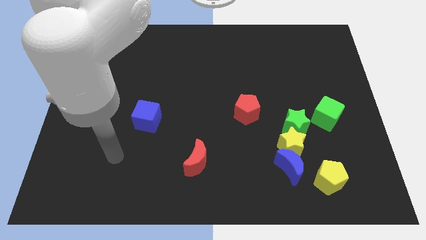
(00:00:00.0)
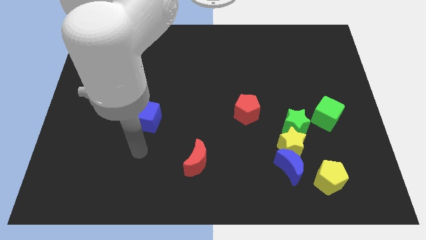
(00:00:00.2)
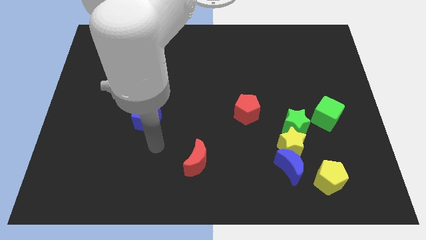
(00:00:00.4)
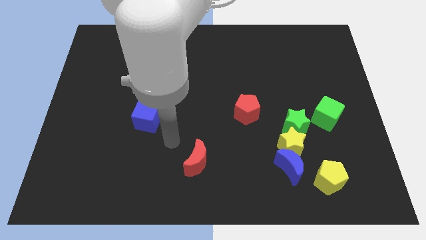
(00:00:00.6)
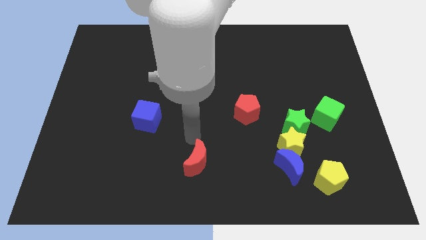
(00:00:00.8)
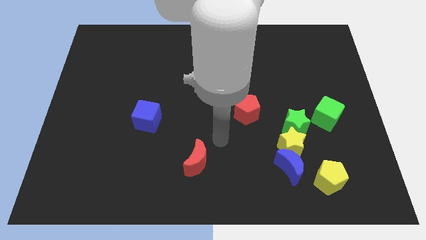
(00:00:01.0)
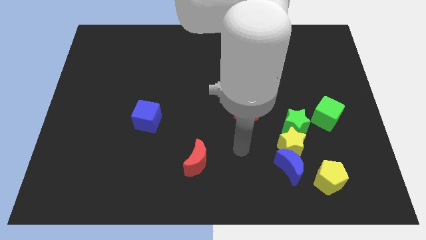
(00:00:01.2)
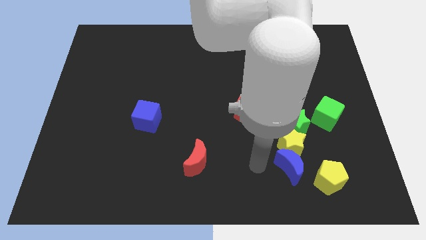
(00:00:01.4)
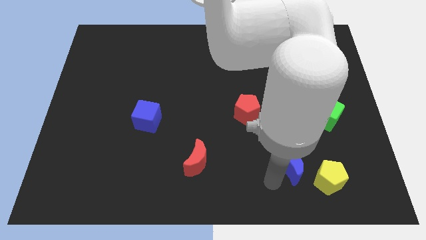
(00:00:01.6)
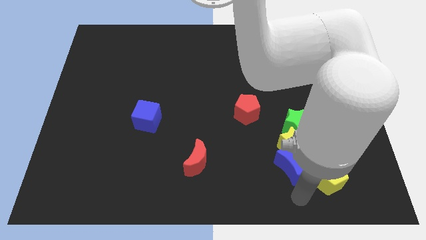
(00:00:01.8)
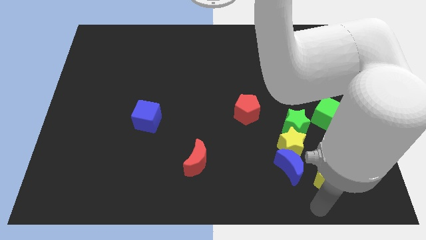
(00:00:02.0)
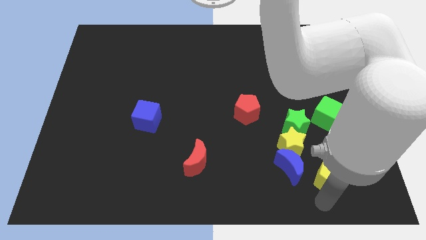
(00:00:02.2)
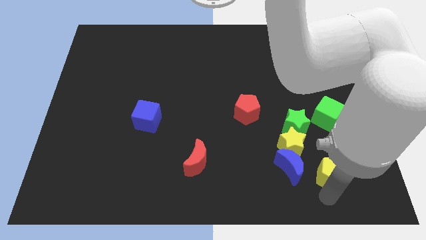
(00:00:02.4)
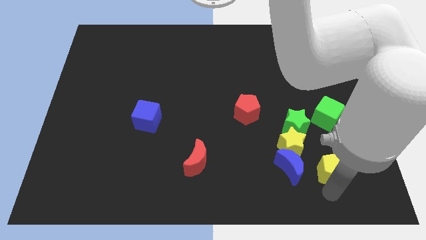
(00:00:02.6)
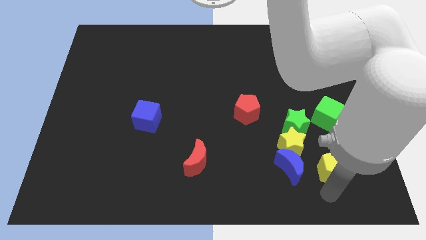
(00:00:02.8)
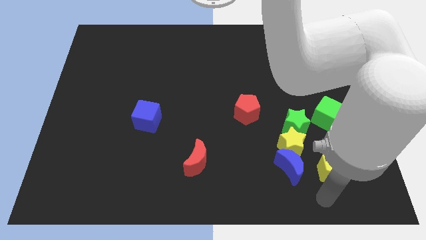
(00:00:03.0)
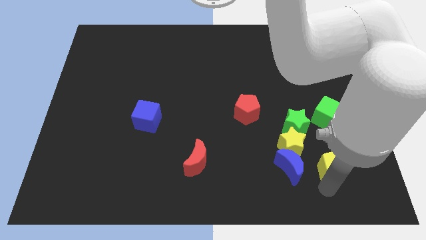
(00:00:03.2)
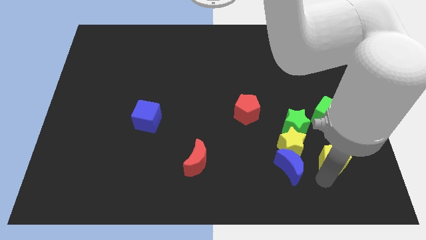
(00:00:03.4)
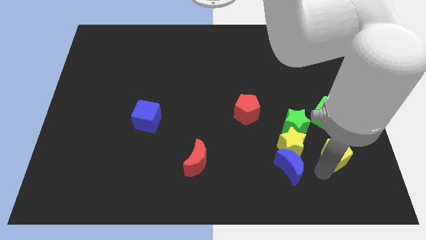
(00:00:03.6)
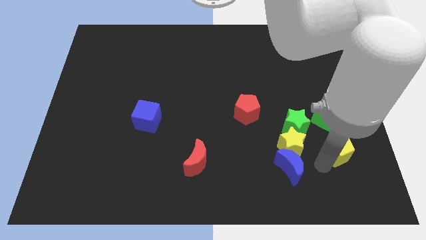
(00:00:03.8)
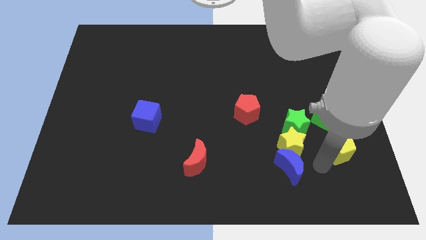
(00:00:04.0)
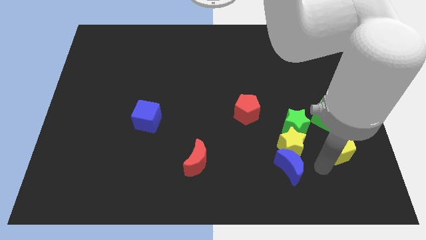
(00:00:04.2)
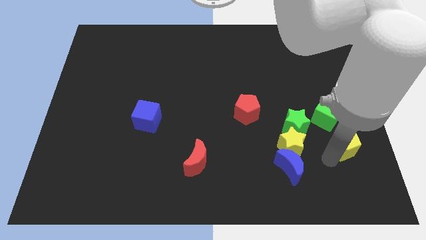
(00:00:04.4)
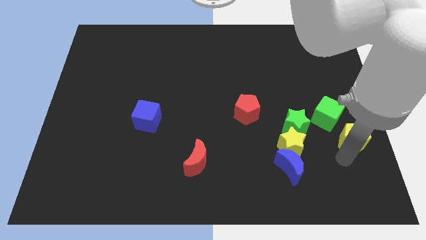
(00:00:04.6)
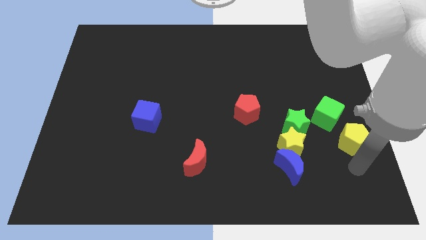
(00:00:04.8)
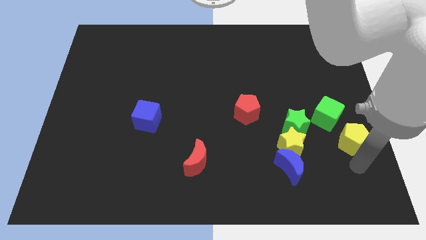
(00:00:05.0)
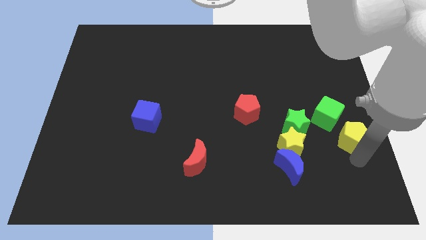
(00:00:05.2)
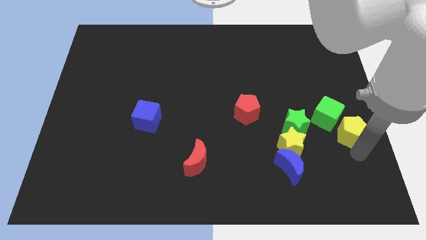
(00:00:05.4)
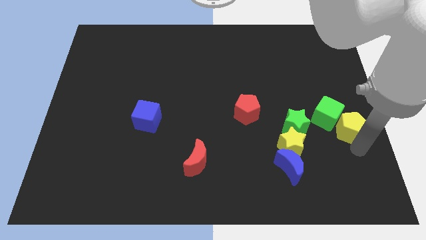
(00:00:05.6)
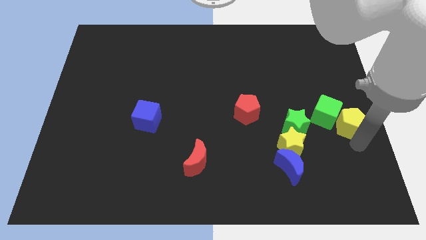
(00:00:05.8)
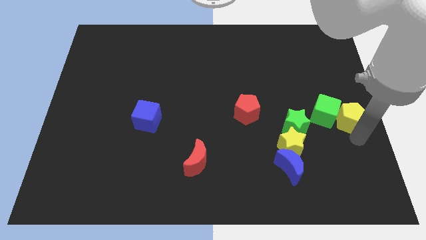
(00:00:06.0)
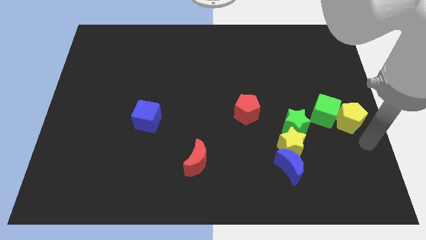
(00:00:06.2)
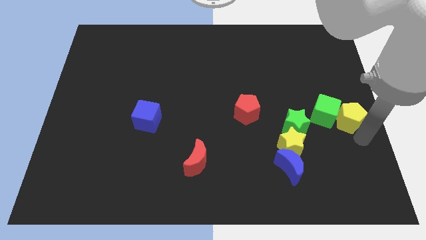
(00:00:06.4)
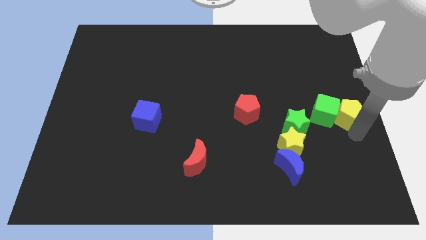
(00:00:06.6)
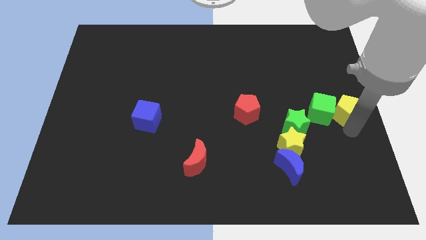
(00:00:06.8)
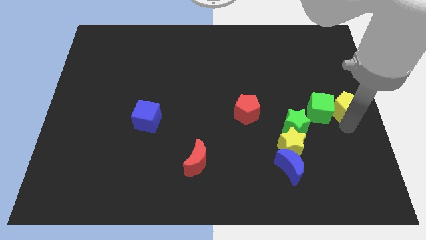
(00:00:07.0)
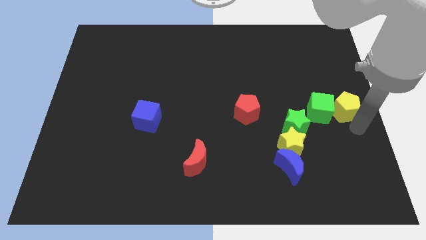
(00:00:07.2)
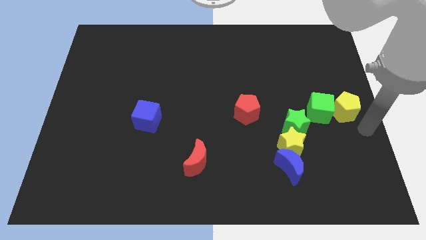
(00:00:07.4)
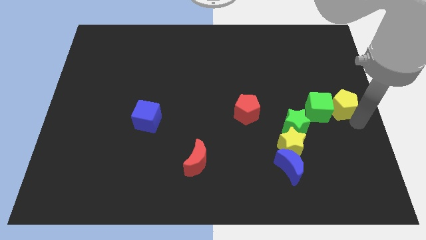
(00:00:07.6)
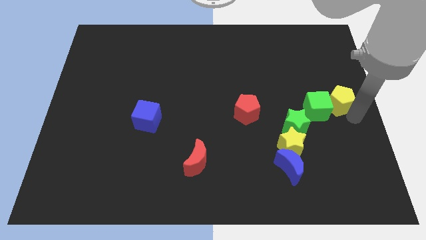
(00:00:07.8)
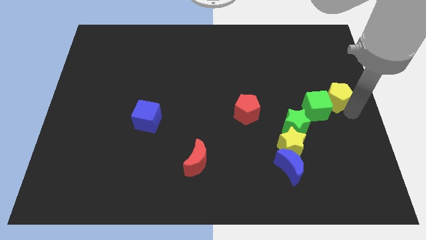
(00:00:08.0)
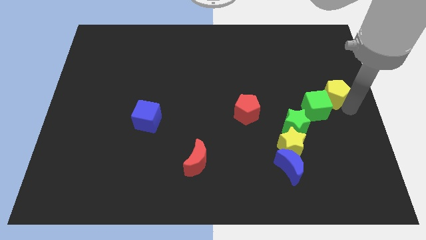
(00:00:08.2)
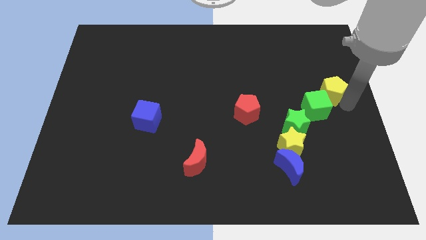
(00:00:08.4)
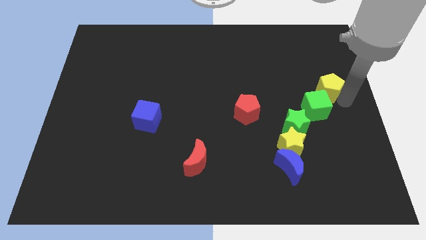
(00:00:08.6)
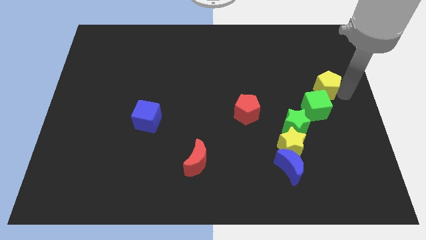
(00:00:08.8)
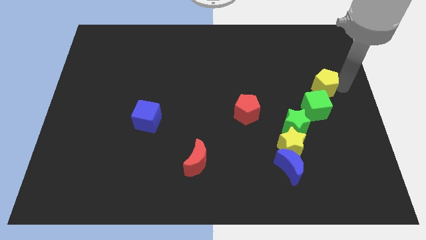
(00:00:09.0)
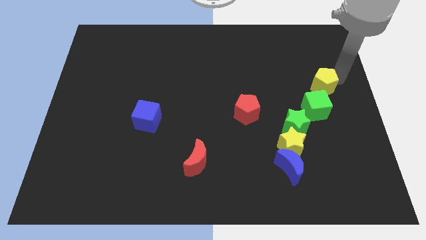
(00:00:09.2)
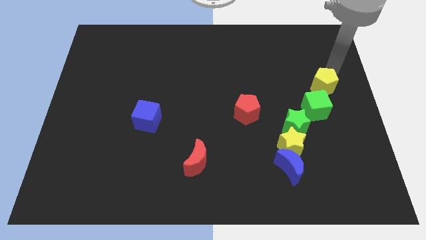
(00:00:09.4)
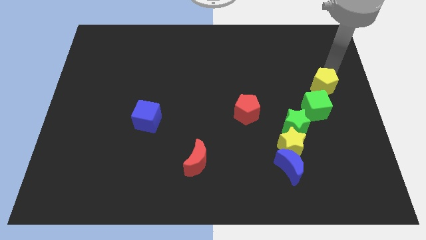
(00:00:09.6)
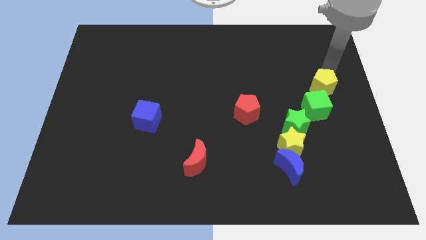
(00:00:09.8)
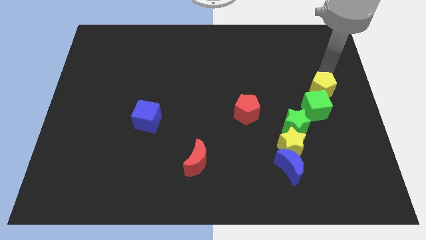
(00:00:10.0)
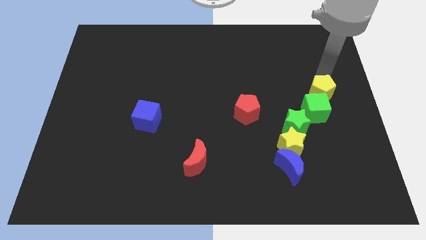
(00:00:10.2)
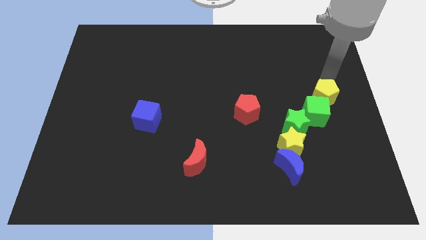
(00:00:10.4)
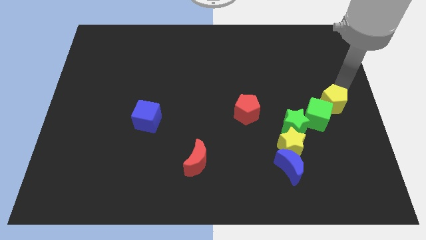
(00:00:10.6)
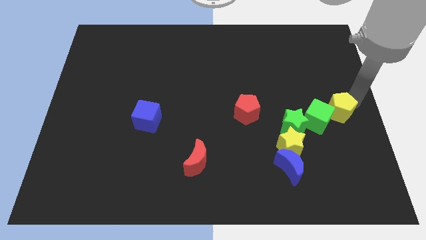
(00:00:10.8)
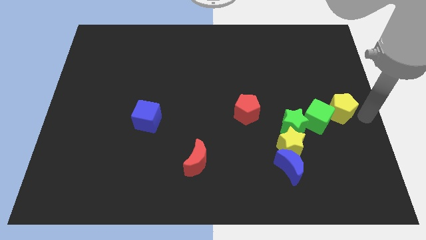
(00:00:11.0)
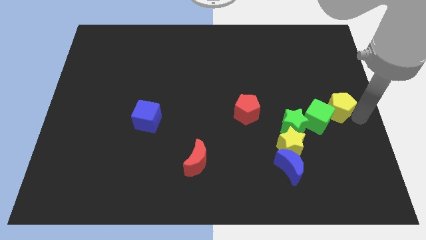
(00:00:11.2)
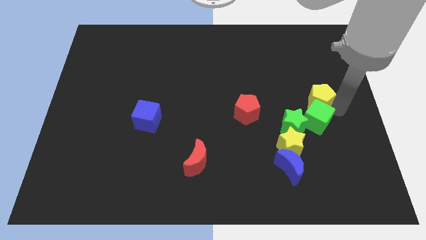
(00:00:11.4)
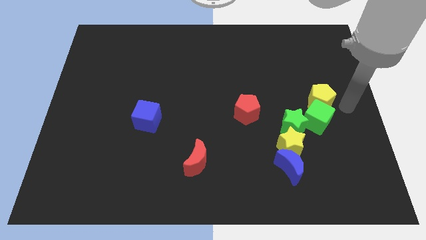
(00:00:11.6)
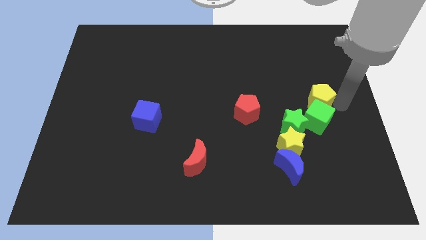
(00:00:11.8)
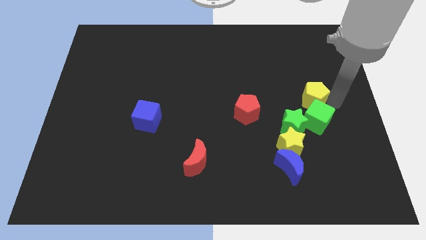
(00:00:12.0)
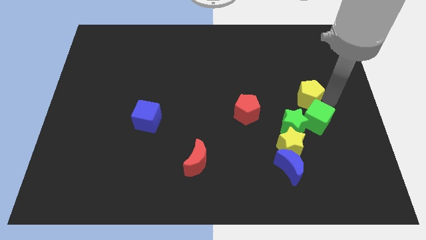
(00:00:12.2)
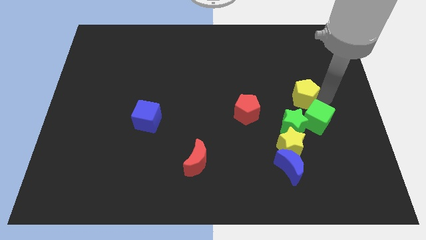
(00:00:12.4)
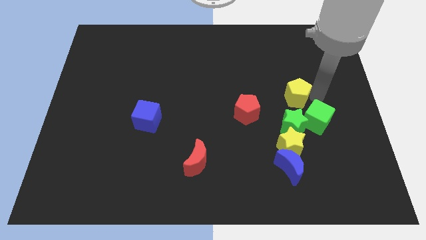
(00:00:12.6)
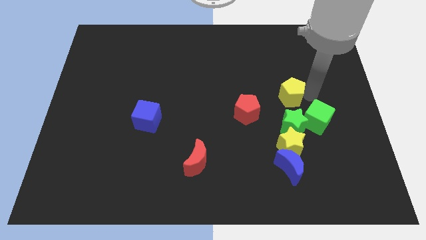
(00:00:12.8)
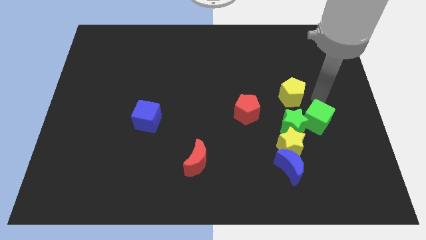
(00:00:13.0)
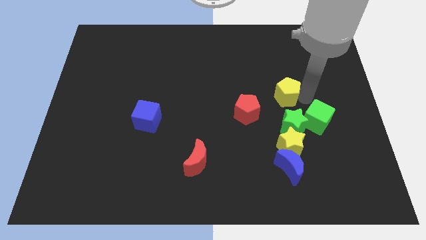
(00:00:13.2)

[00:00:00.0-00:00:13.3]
move the yellow pentagon to the top right of the red pentagon

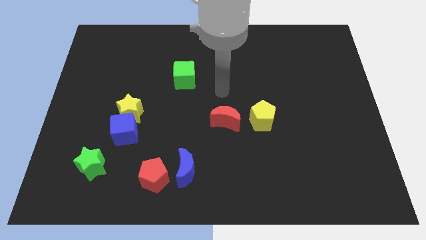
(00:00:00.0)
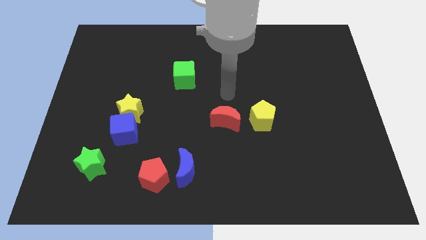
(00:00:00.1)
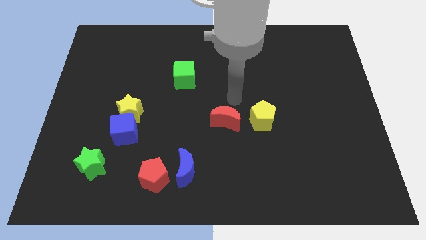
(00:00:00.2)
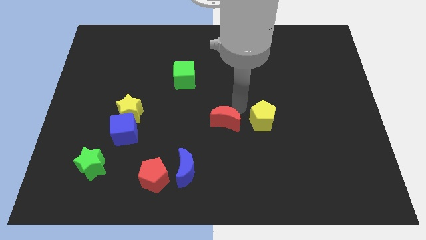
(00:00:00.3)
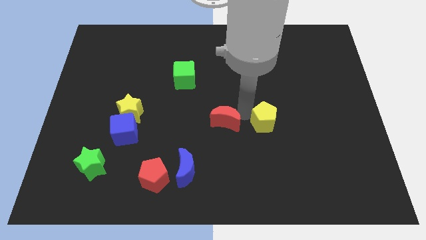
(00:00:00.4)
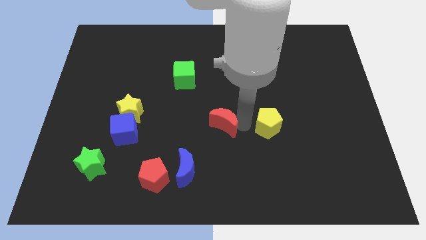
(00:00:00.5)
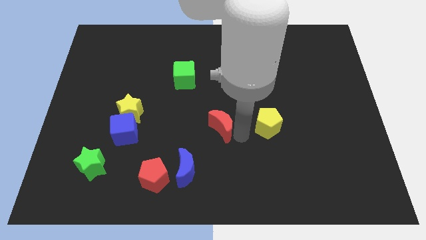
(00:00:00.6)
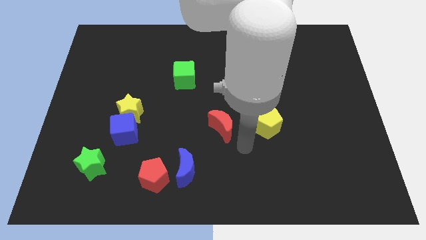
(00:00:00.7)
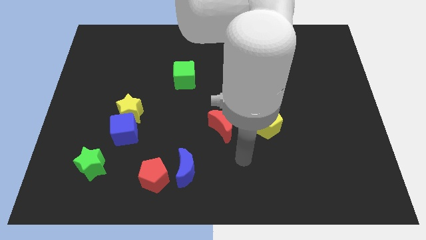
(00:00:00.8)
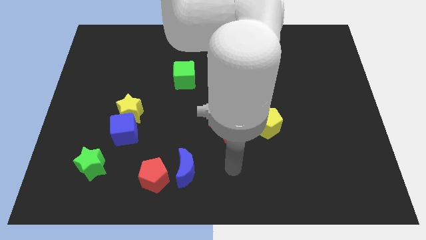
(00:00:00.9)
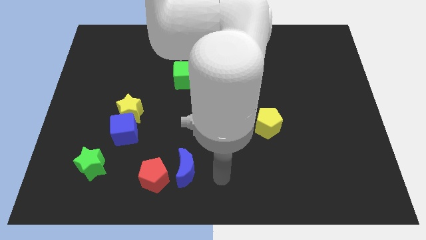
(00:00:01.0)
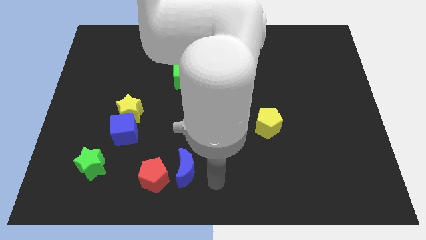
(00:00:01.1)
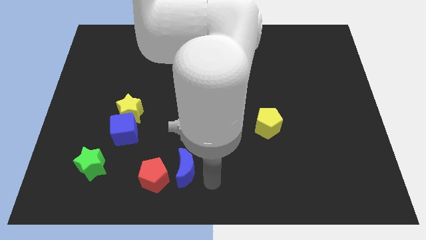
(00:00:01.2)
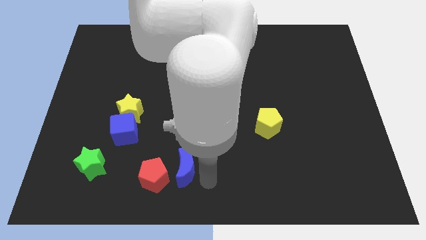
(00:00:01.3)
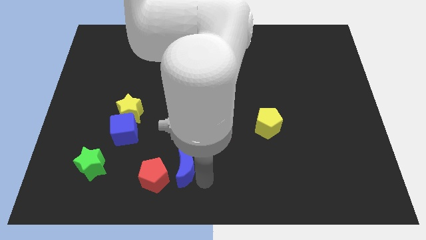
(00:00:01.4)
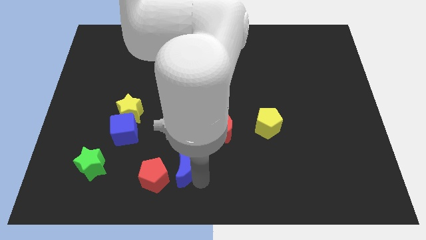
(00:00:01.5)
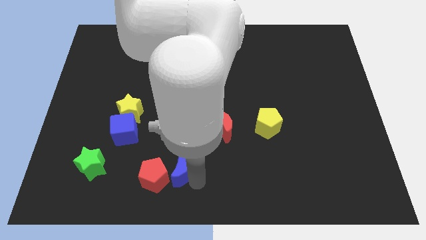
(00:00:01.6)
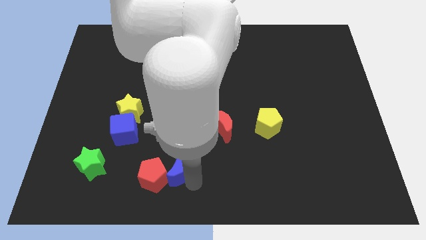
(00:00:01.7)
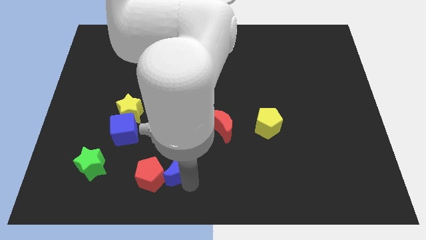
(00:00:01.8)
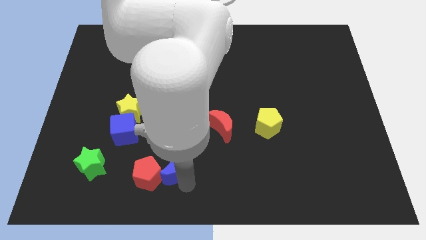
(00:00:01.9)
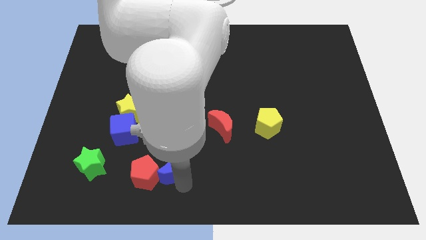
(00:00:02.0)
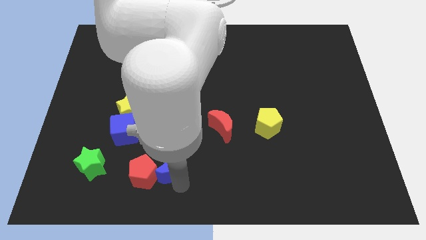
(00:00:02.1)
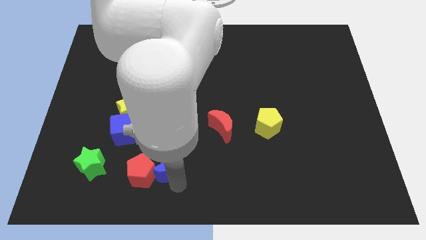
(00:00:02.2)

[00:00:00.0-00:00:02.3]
slide the blue moon to the right side of the green star
